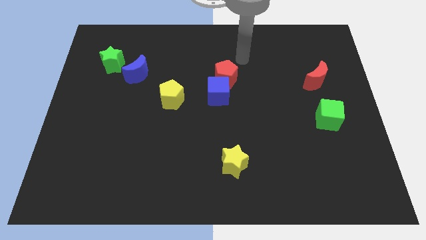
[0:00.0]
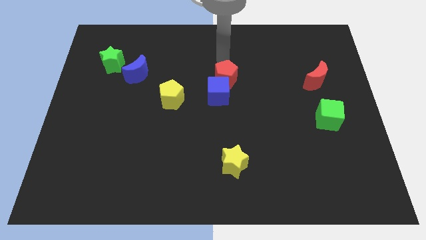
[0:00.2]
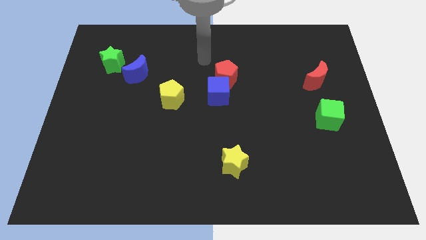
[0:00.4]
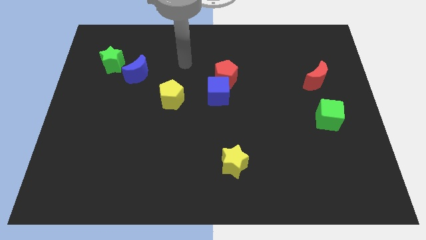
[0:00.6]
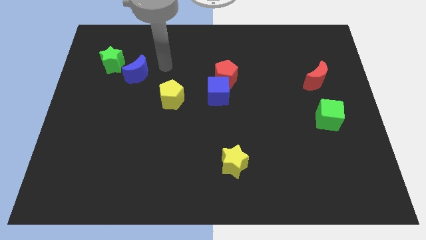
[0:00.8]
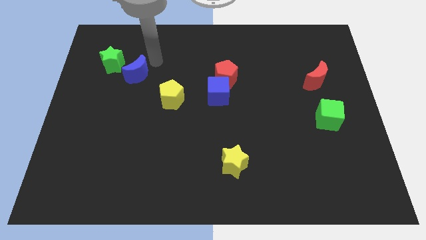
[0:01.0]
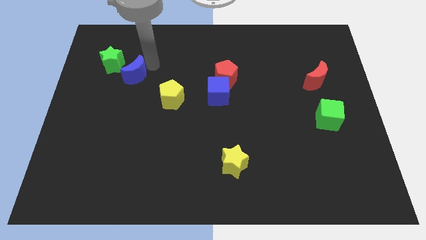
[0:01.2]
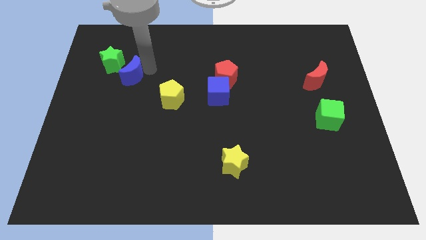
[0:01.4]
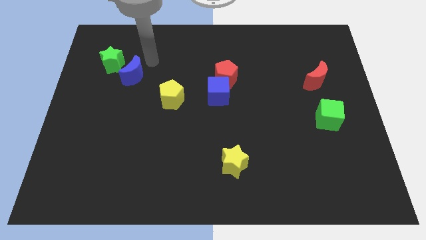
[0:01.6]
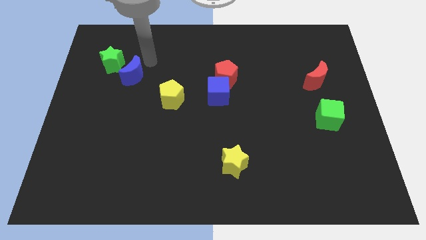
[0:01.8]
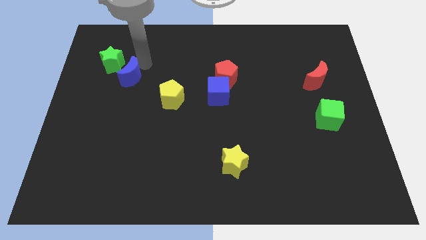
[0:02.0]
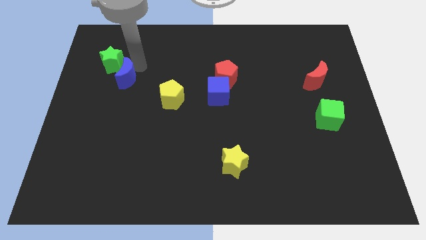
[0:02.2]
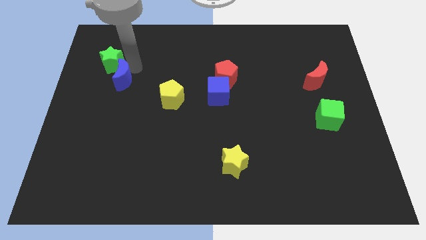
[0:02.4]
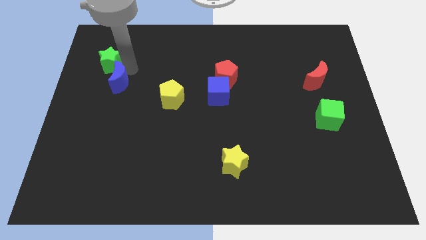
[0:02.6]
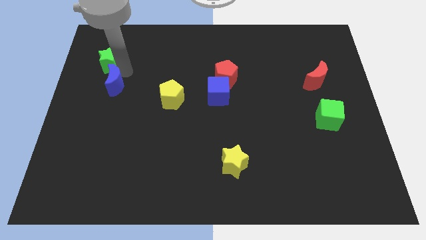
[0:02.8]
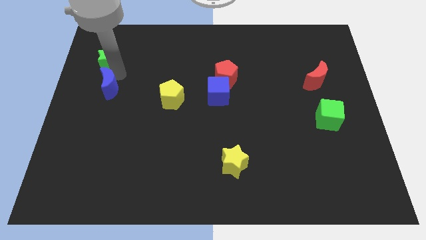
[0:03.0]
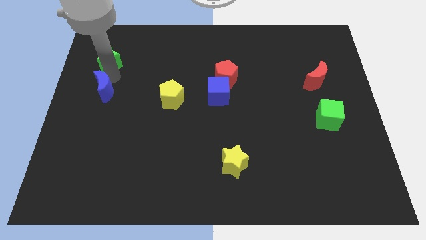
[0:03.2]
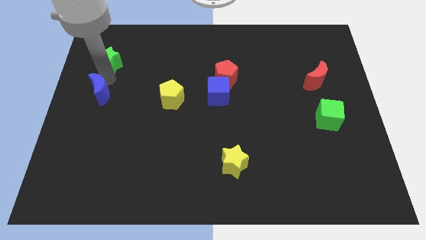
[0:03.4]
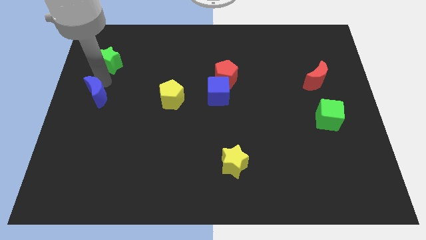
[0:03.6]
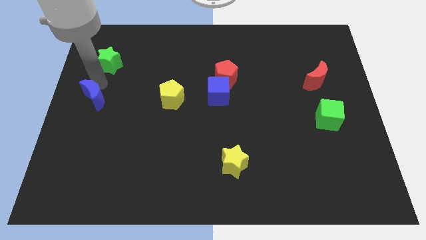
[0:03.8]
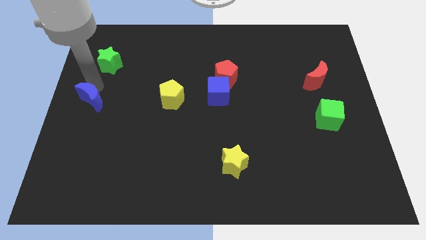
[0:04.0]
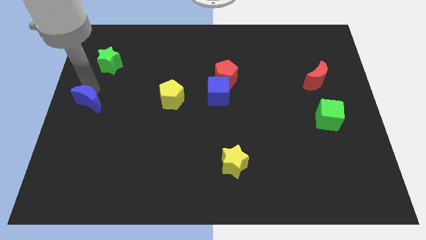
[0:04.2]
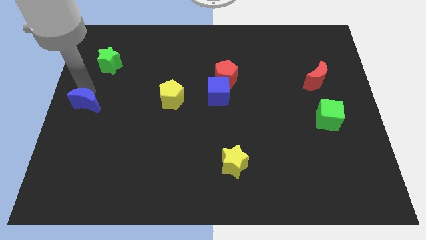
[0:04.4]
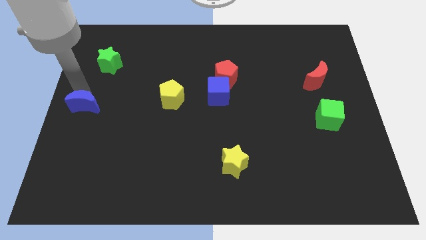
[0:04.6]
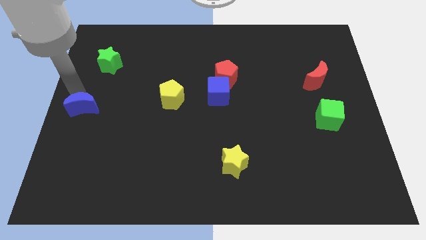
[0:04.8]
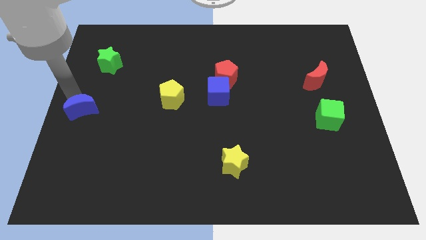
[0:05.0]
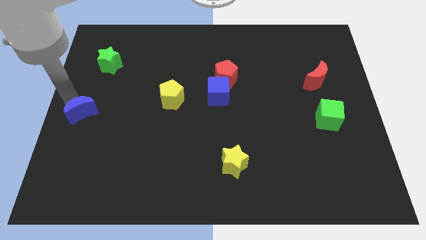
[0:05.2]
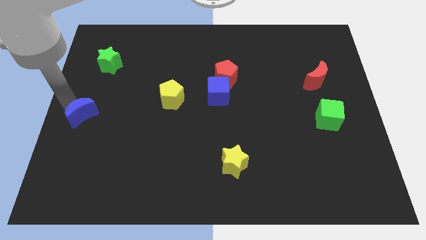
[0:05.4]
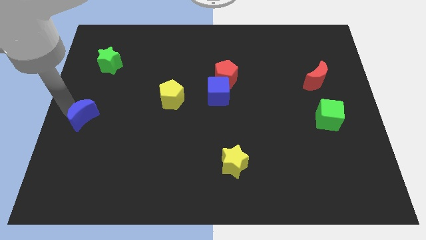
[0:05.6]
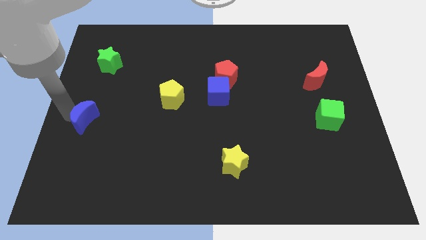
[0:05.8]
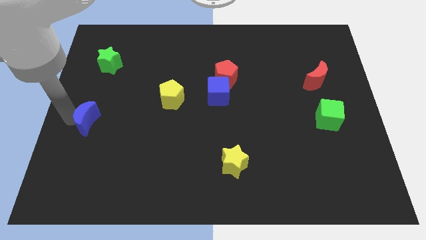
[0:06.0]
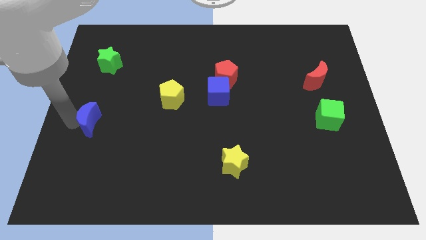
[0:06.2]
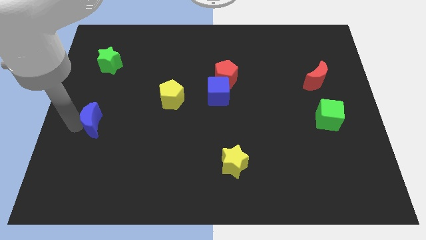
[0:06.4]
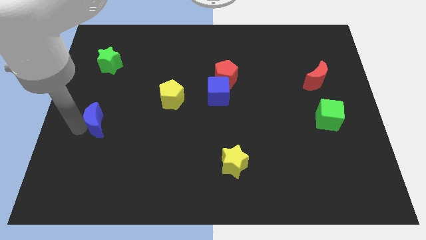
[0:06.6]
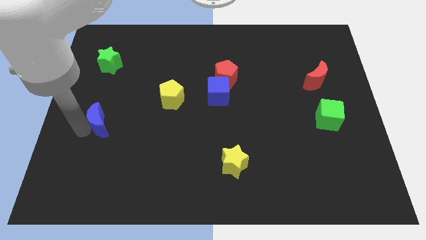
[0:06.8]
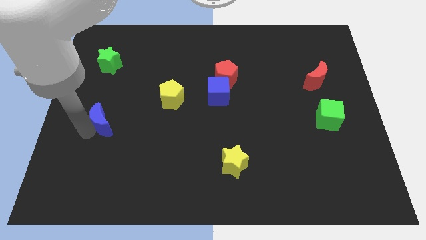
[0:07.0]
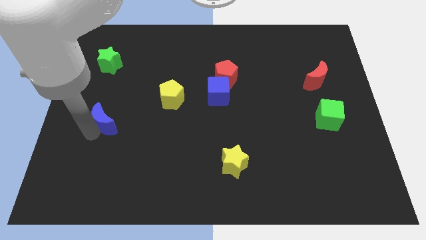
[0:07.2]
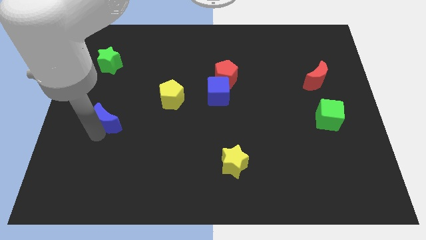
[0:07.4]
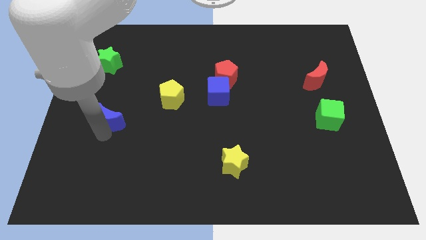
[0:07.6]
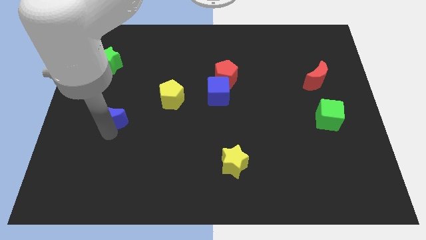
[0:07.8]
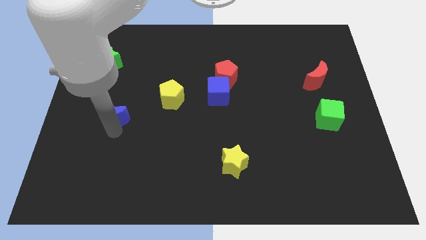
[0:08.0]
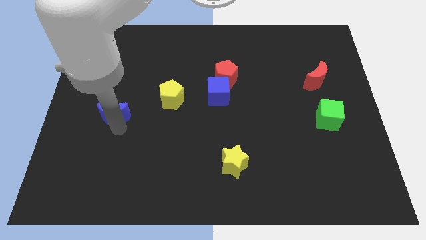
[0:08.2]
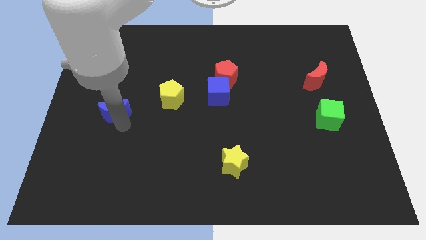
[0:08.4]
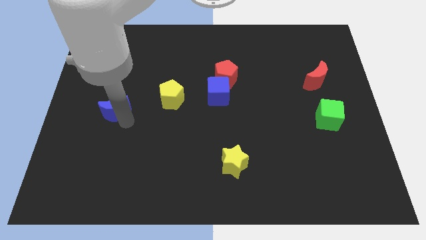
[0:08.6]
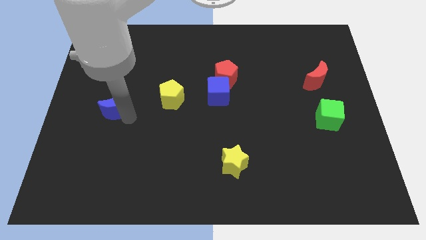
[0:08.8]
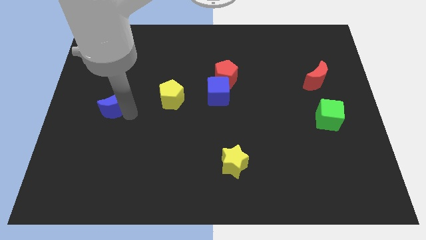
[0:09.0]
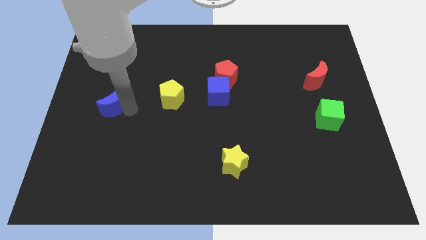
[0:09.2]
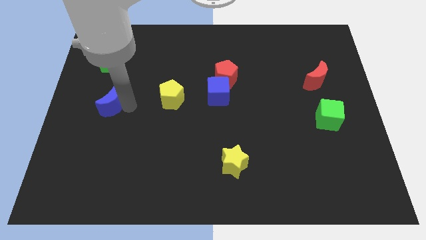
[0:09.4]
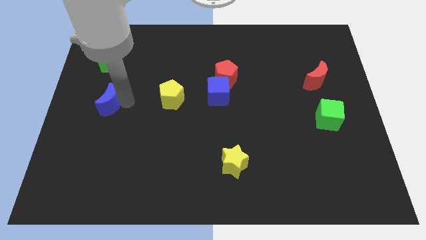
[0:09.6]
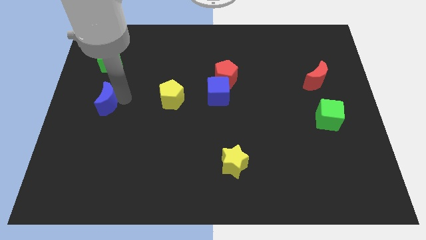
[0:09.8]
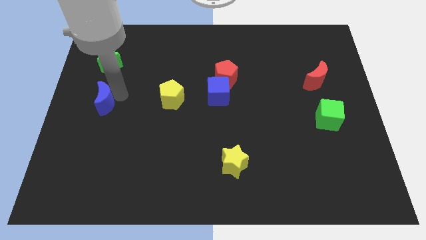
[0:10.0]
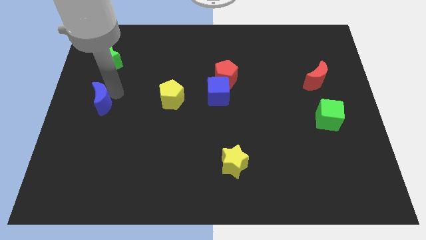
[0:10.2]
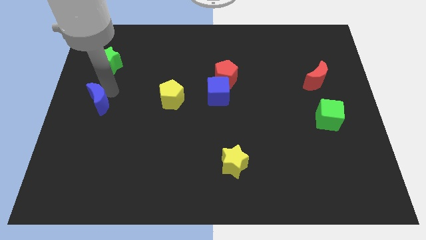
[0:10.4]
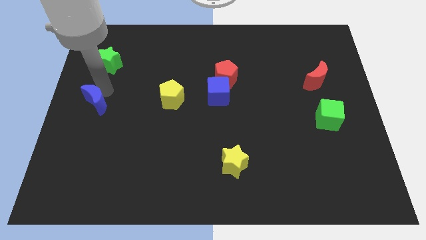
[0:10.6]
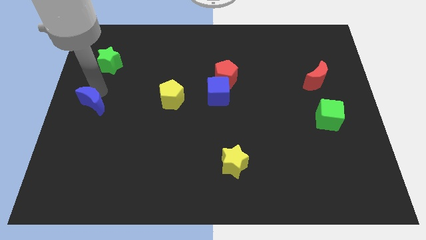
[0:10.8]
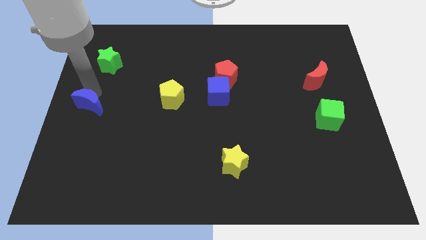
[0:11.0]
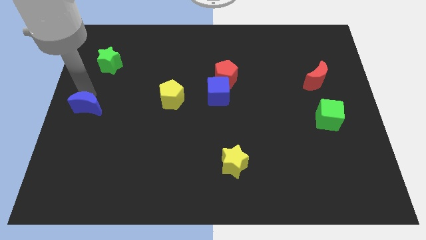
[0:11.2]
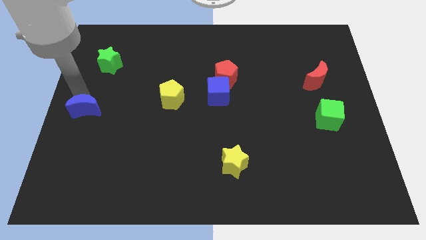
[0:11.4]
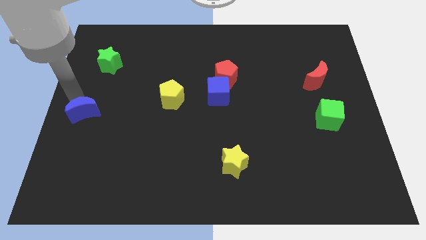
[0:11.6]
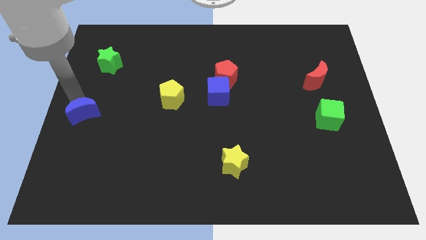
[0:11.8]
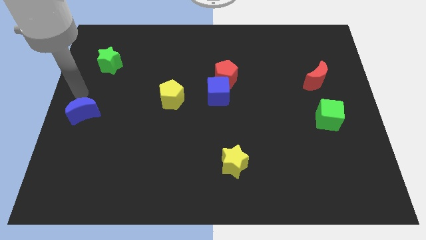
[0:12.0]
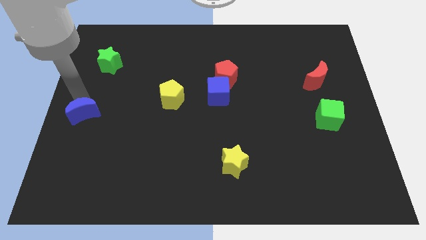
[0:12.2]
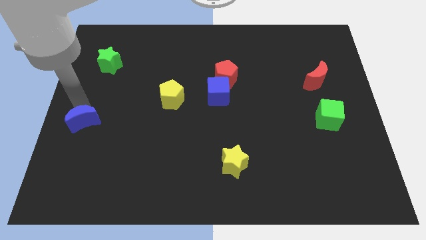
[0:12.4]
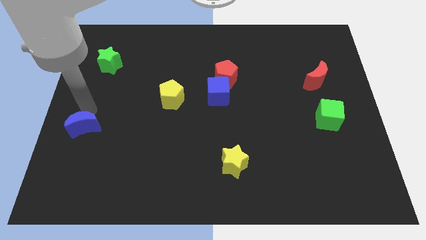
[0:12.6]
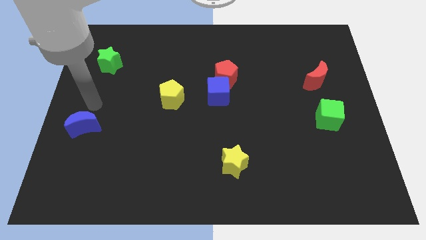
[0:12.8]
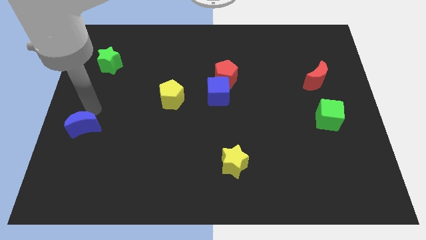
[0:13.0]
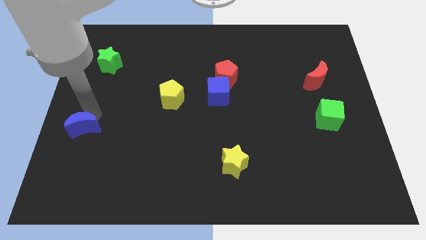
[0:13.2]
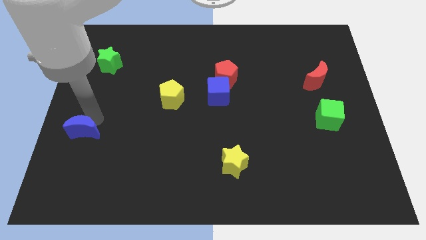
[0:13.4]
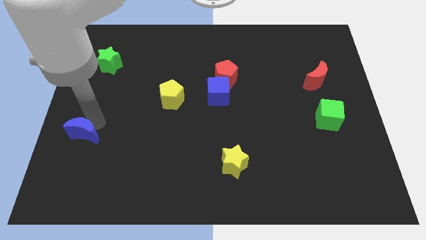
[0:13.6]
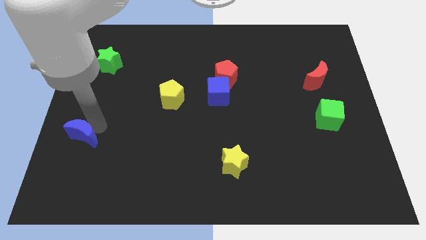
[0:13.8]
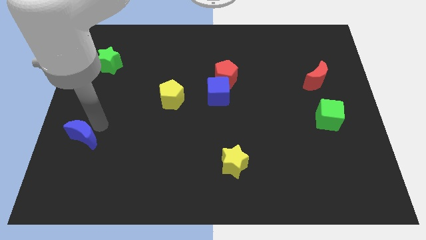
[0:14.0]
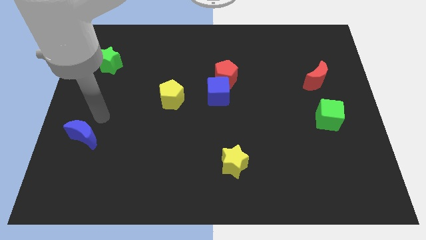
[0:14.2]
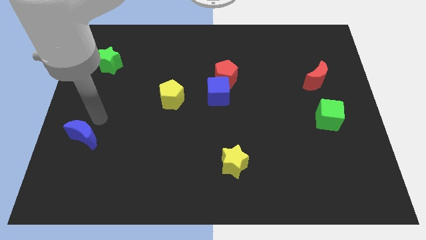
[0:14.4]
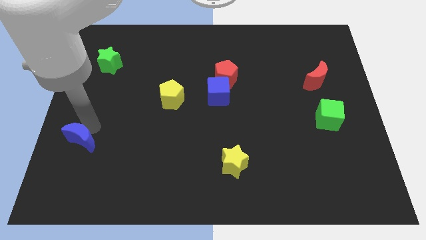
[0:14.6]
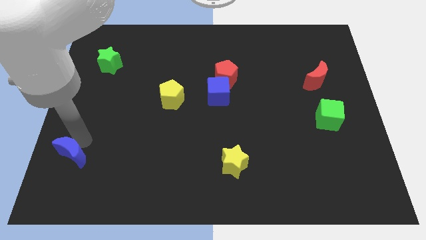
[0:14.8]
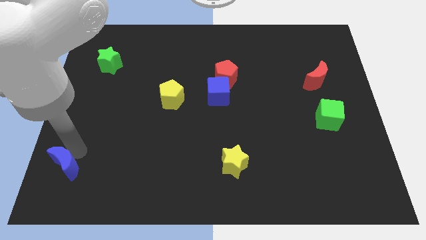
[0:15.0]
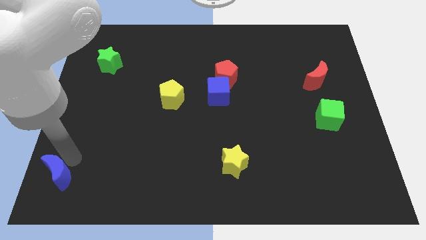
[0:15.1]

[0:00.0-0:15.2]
move the blue moon to the lower left corner
